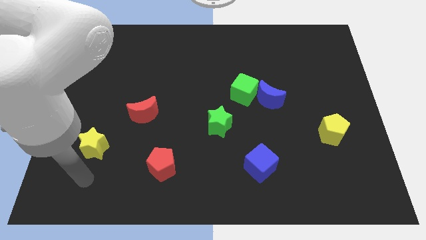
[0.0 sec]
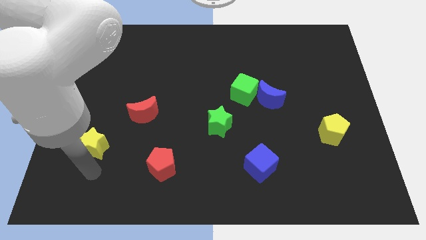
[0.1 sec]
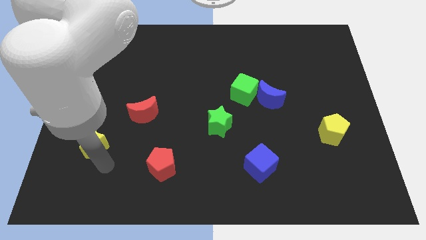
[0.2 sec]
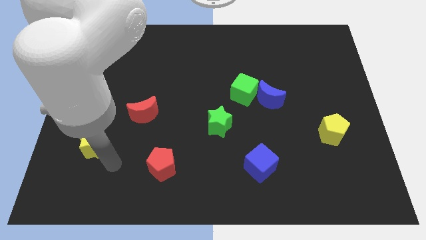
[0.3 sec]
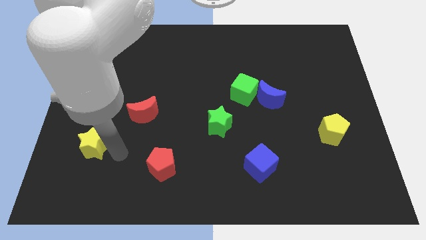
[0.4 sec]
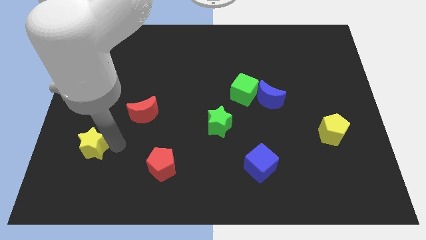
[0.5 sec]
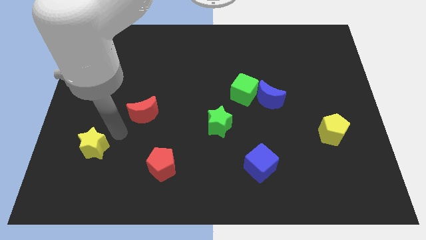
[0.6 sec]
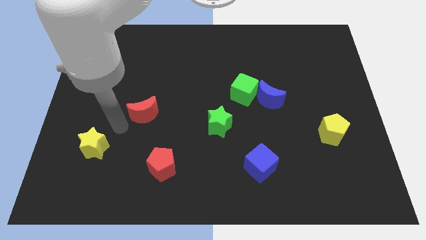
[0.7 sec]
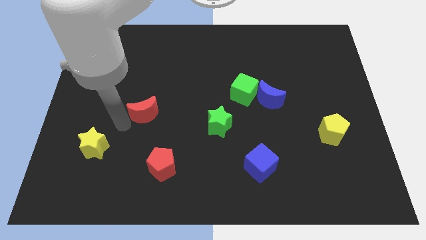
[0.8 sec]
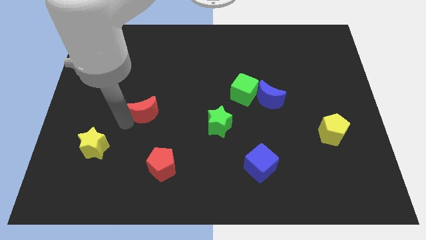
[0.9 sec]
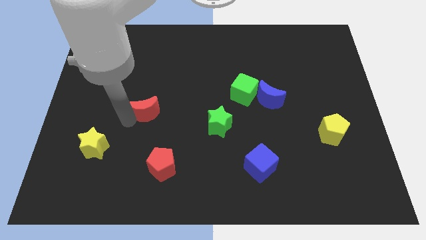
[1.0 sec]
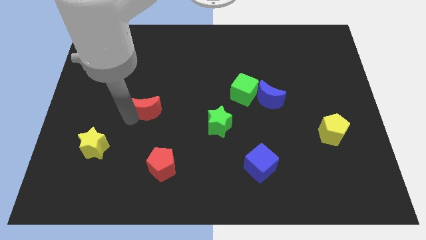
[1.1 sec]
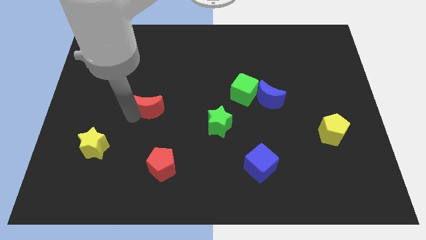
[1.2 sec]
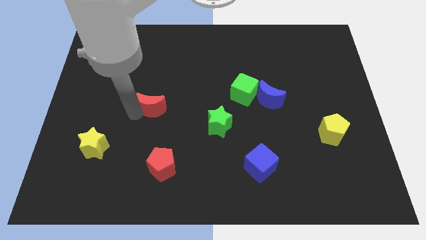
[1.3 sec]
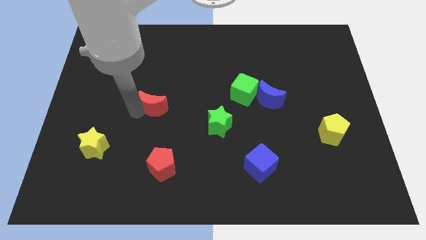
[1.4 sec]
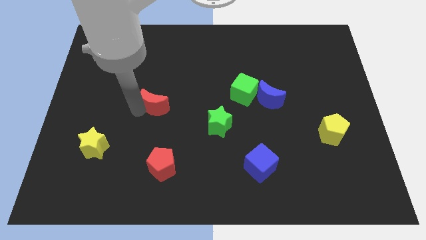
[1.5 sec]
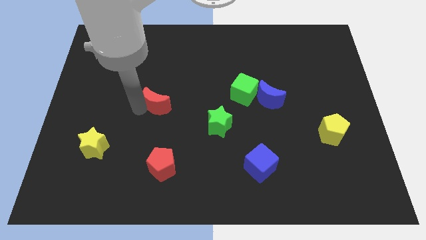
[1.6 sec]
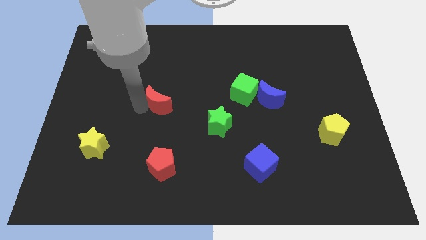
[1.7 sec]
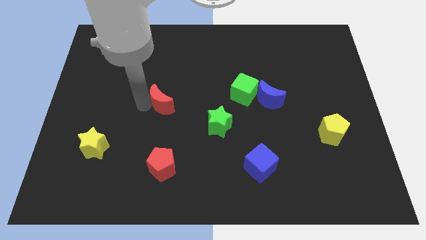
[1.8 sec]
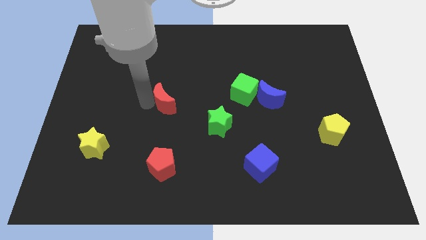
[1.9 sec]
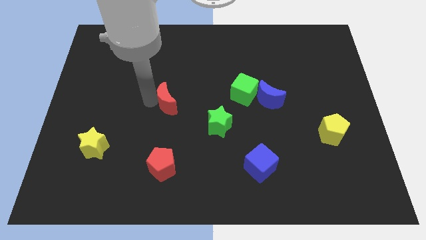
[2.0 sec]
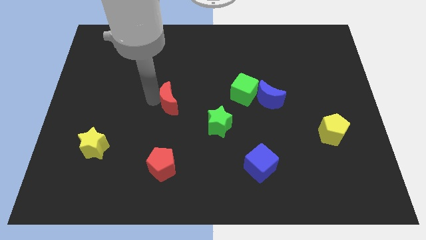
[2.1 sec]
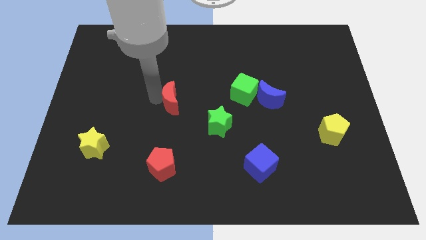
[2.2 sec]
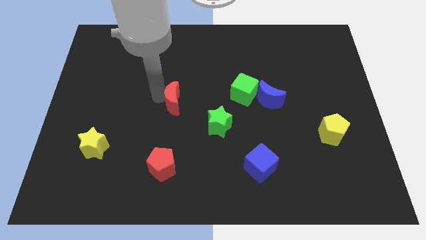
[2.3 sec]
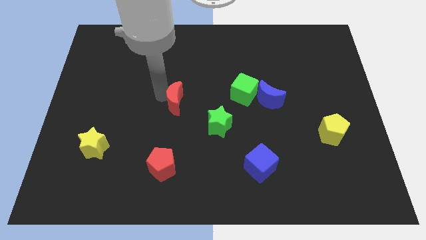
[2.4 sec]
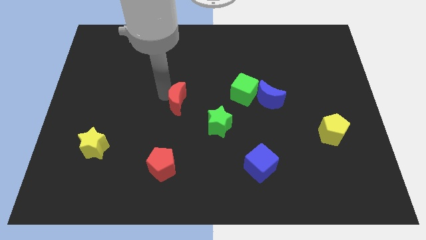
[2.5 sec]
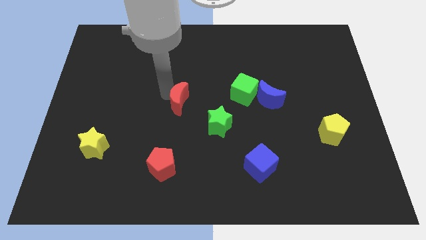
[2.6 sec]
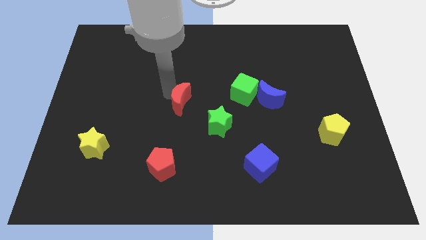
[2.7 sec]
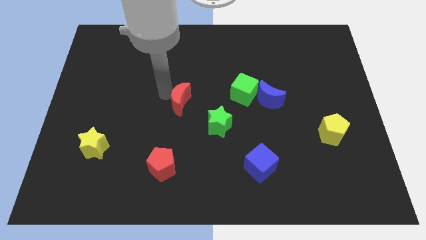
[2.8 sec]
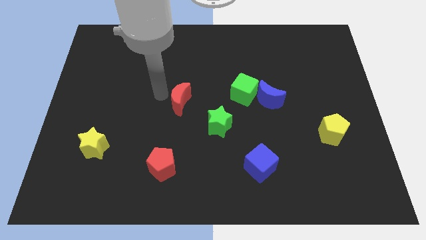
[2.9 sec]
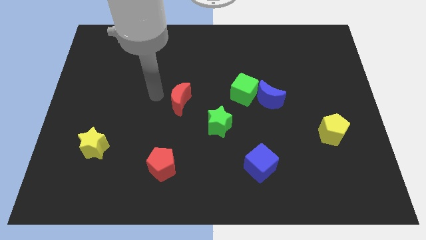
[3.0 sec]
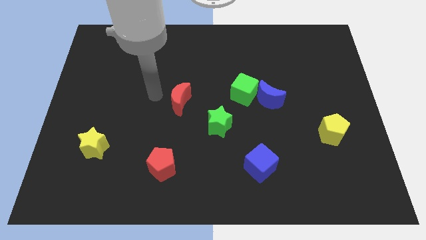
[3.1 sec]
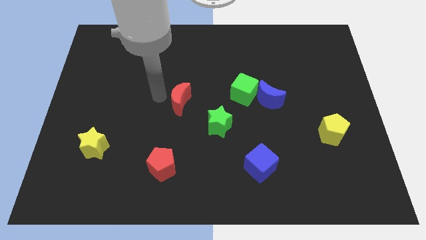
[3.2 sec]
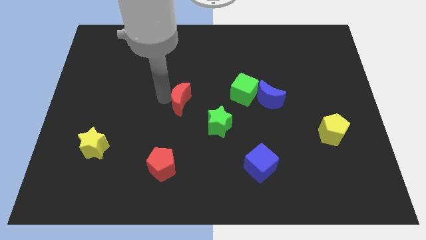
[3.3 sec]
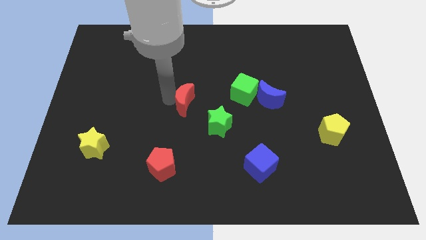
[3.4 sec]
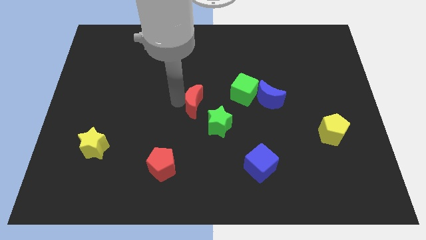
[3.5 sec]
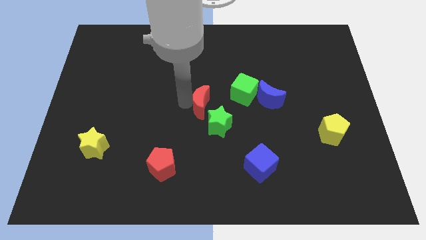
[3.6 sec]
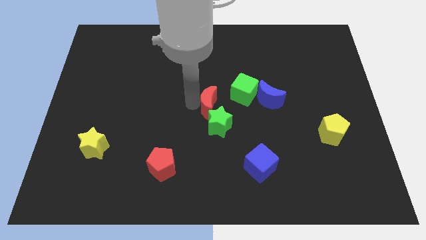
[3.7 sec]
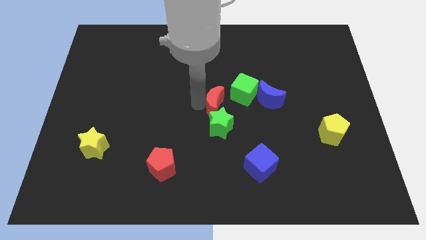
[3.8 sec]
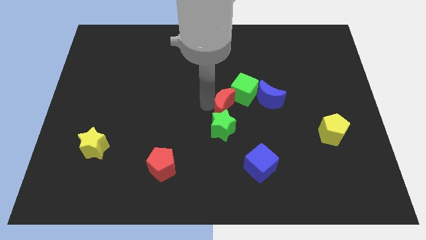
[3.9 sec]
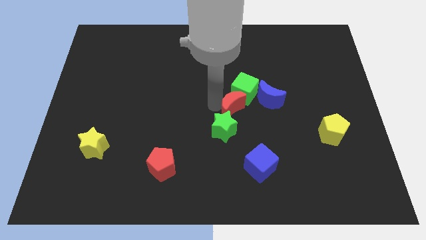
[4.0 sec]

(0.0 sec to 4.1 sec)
move the red moon to the right

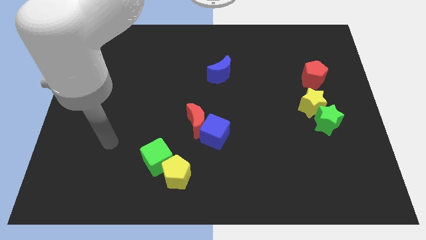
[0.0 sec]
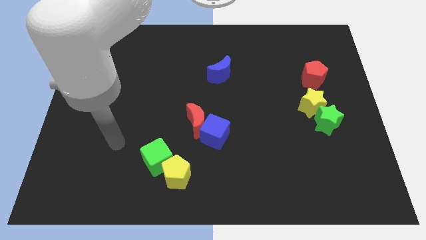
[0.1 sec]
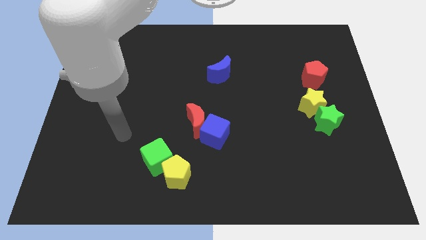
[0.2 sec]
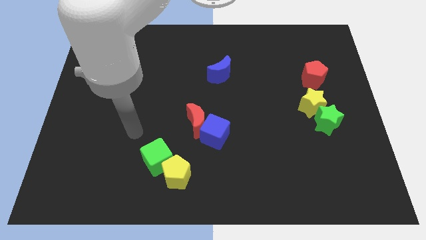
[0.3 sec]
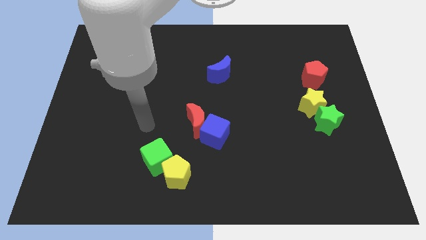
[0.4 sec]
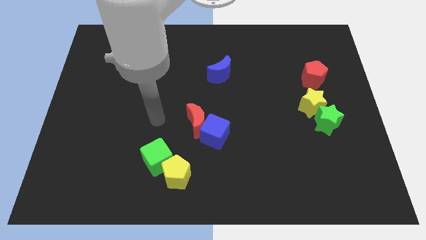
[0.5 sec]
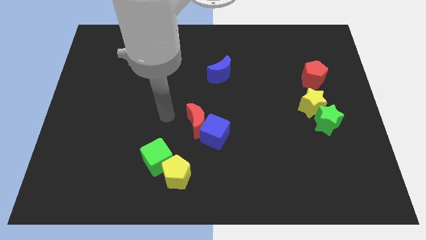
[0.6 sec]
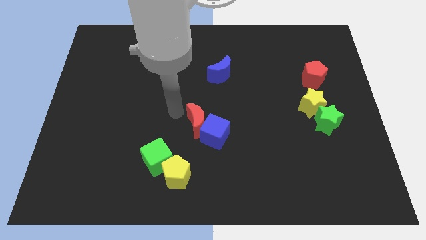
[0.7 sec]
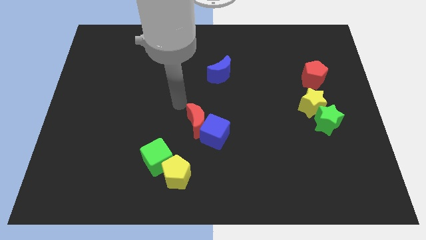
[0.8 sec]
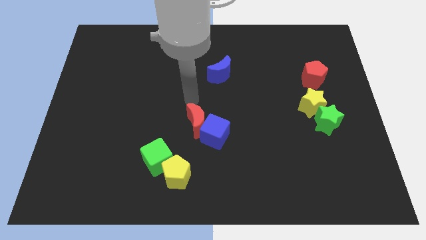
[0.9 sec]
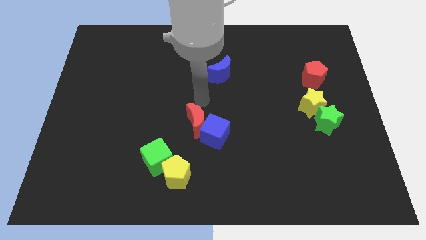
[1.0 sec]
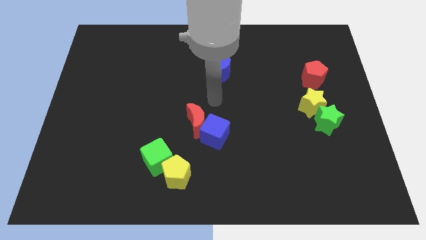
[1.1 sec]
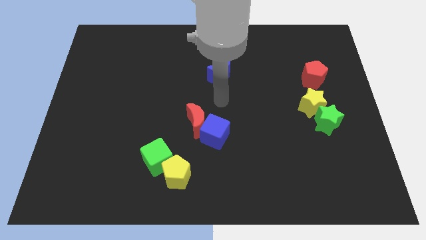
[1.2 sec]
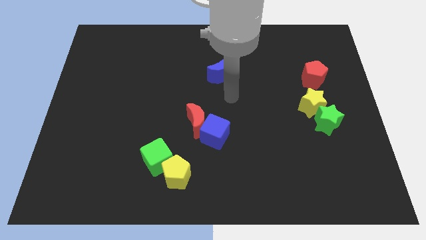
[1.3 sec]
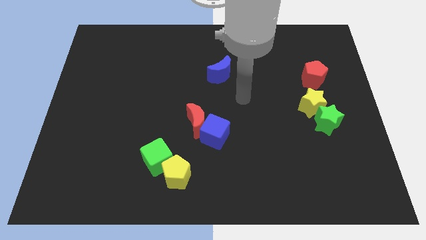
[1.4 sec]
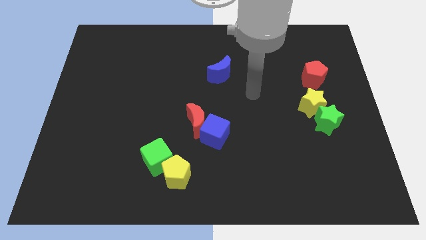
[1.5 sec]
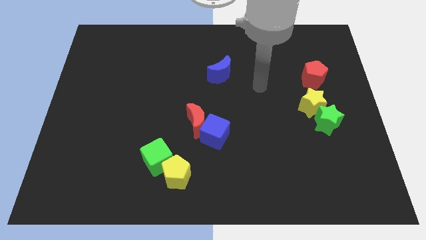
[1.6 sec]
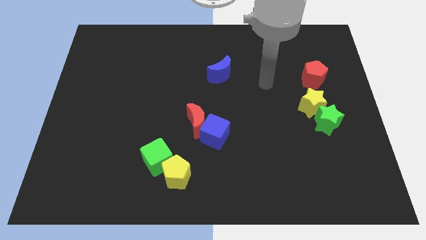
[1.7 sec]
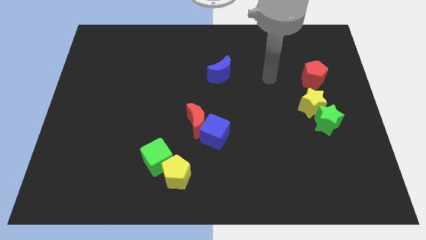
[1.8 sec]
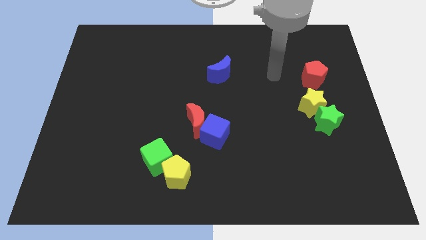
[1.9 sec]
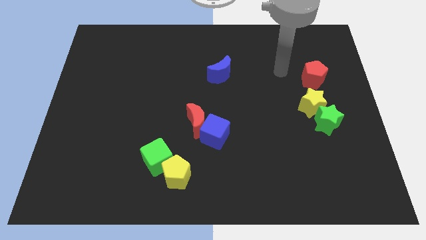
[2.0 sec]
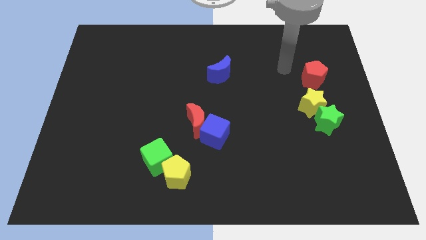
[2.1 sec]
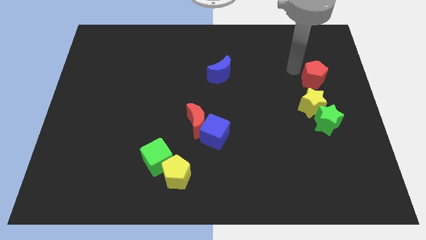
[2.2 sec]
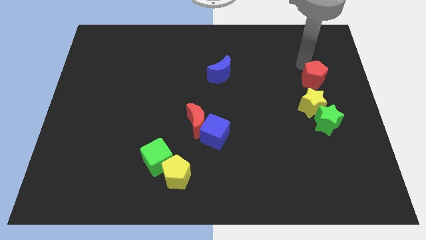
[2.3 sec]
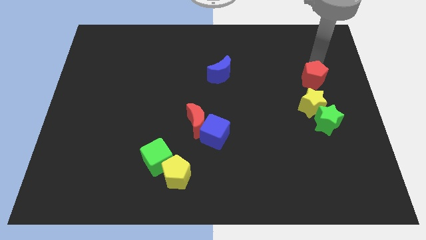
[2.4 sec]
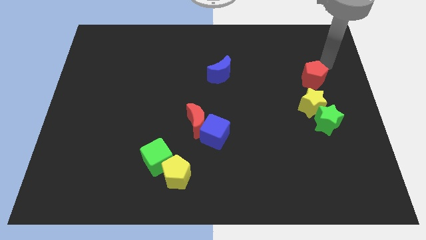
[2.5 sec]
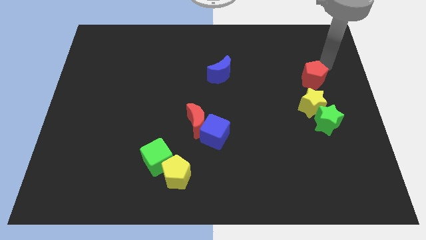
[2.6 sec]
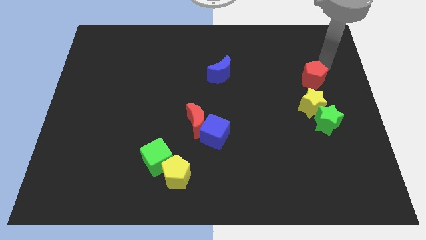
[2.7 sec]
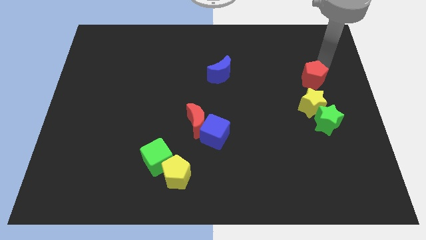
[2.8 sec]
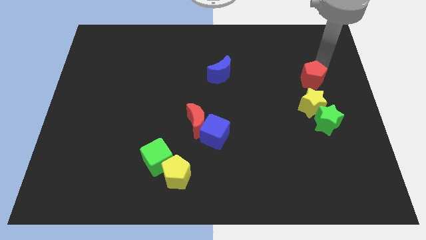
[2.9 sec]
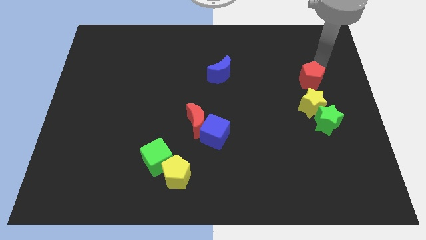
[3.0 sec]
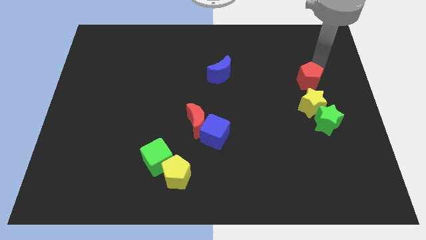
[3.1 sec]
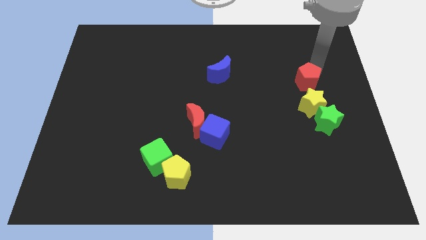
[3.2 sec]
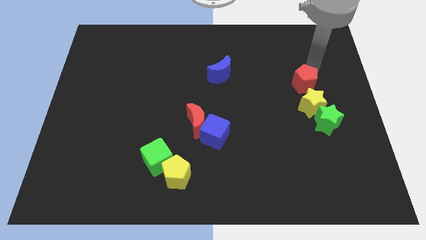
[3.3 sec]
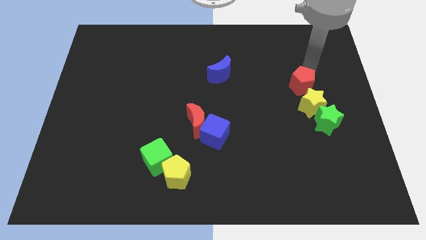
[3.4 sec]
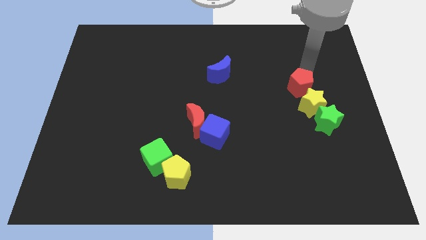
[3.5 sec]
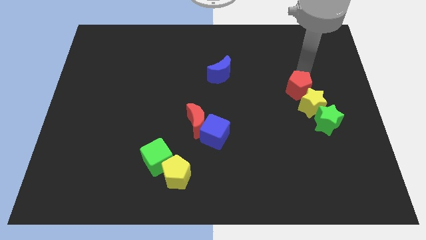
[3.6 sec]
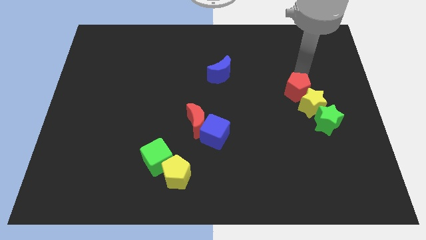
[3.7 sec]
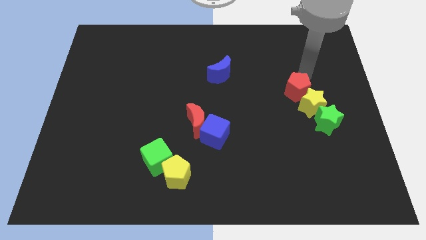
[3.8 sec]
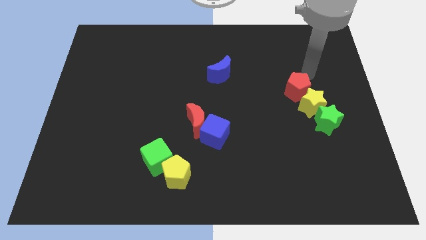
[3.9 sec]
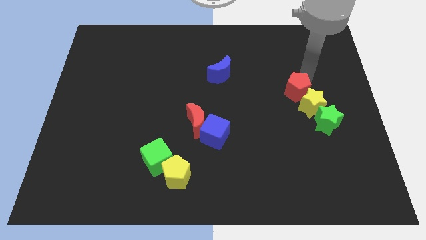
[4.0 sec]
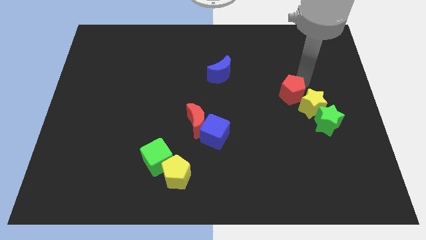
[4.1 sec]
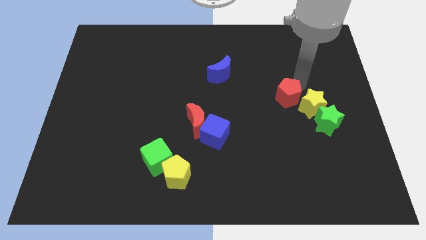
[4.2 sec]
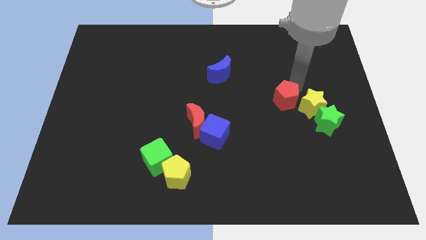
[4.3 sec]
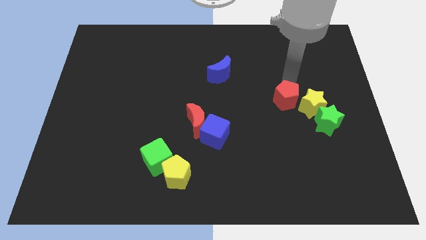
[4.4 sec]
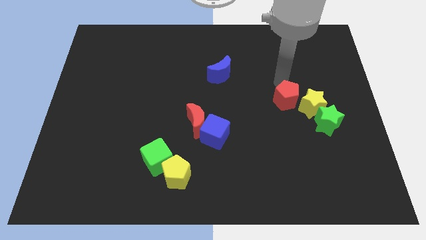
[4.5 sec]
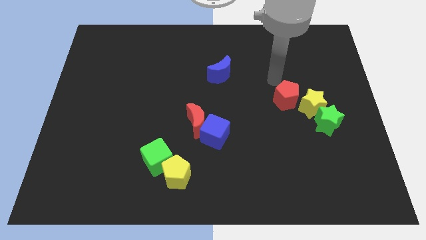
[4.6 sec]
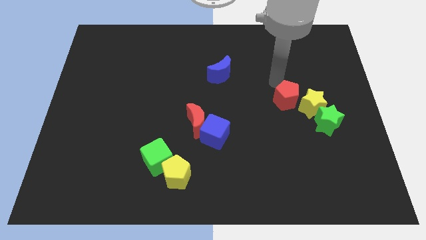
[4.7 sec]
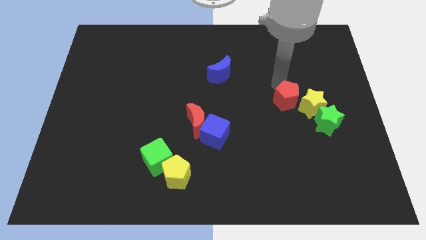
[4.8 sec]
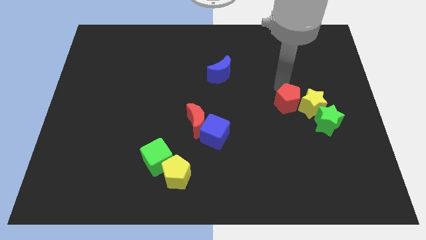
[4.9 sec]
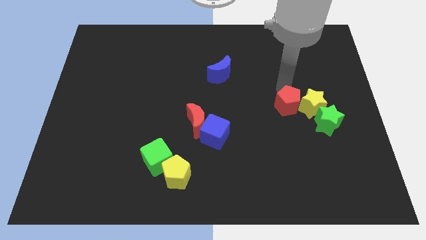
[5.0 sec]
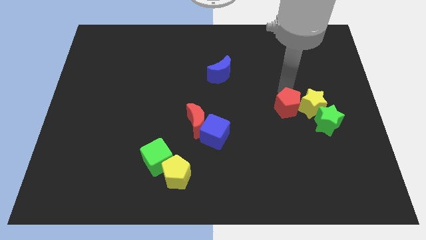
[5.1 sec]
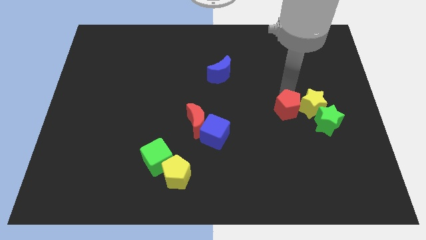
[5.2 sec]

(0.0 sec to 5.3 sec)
move the red pentagon somewhat downwards
